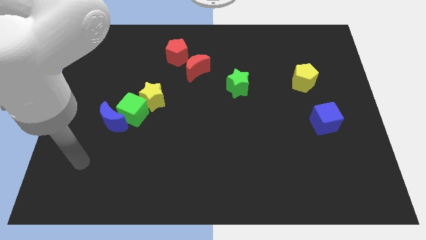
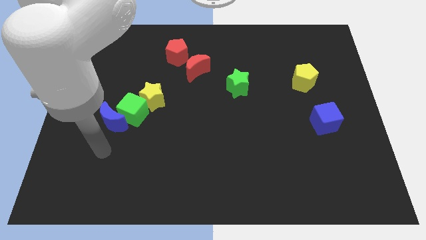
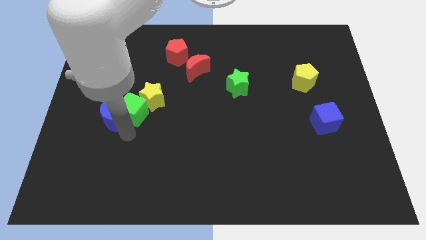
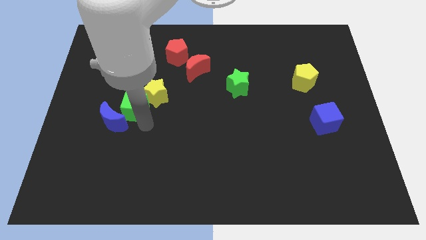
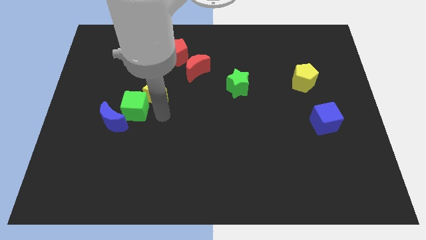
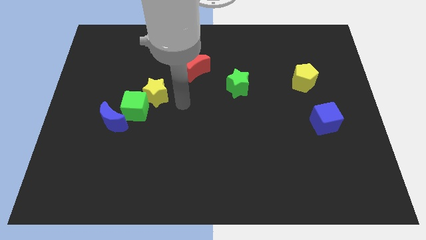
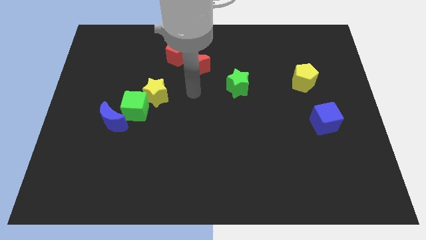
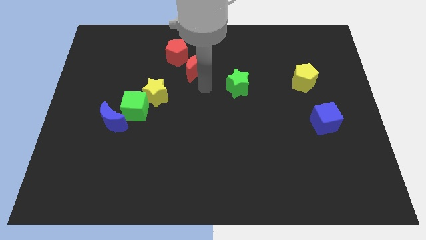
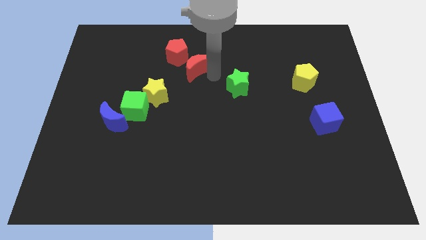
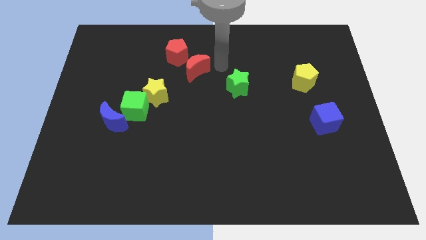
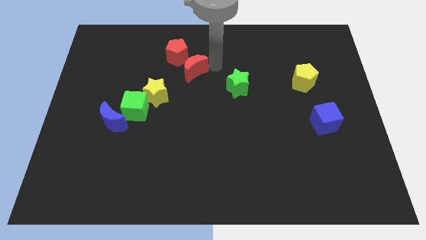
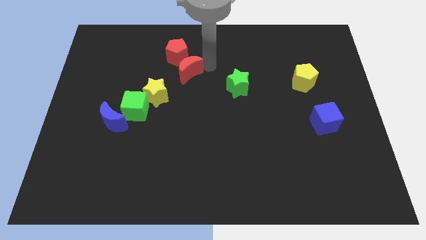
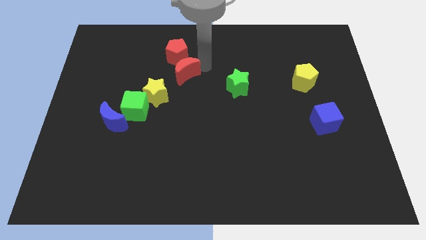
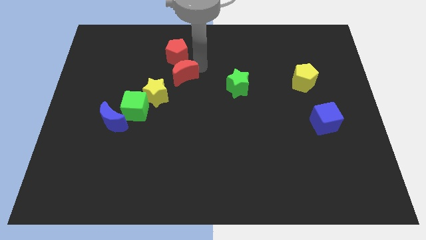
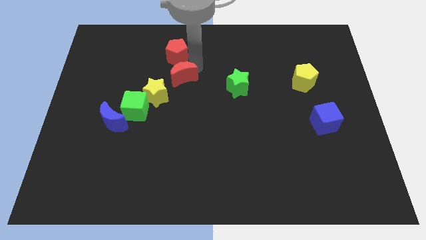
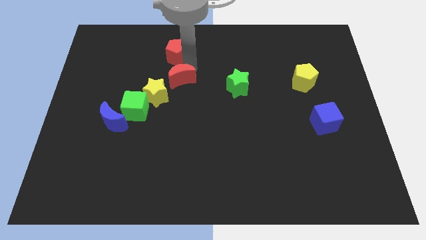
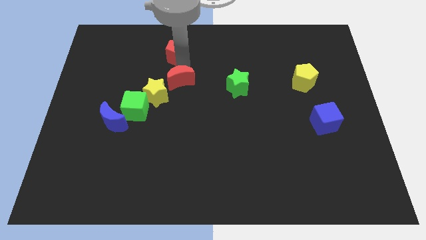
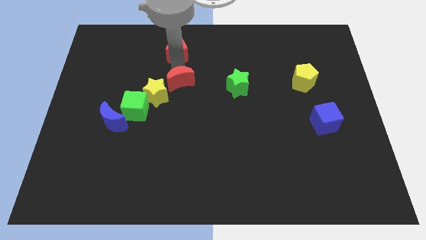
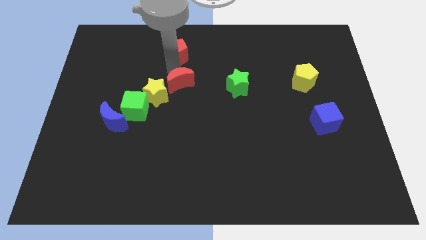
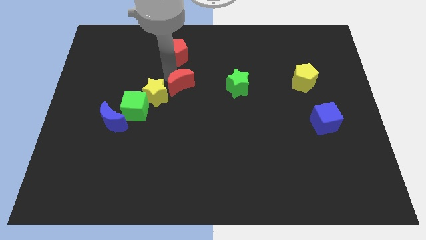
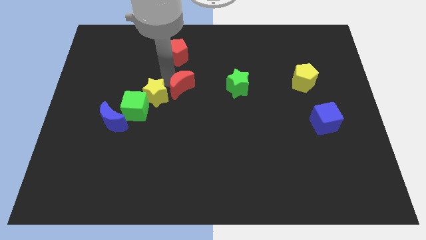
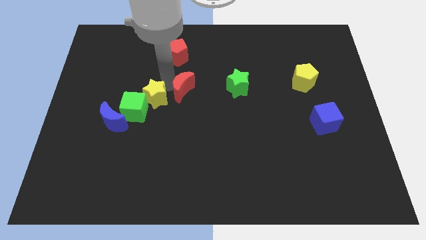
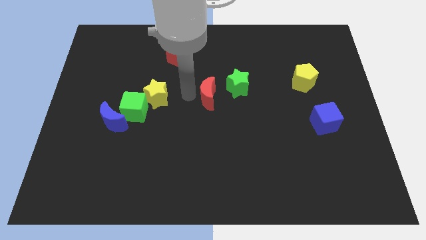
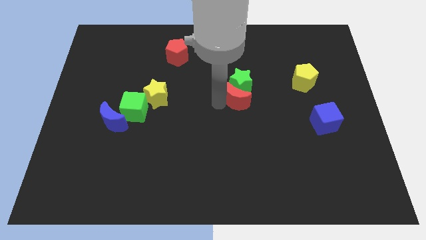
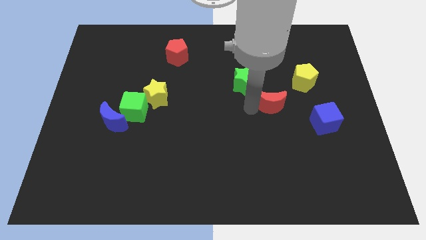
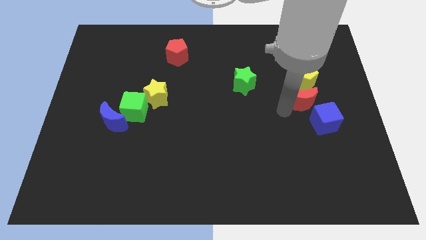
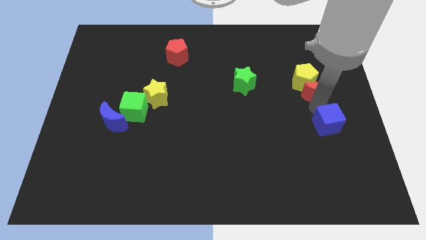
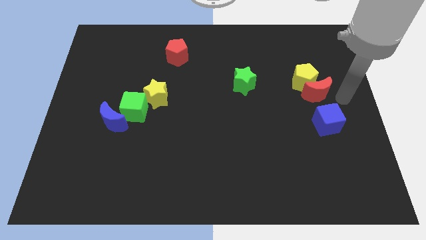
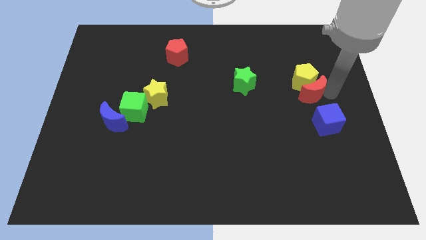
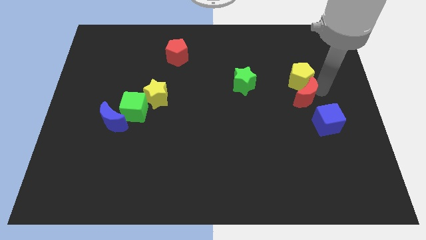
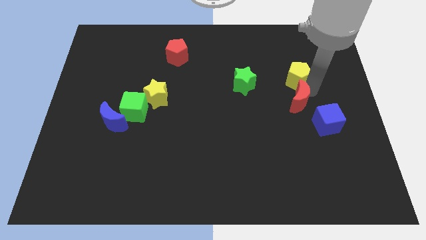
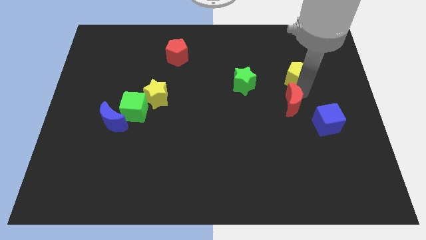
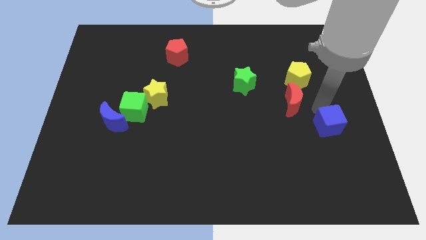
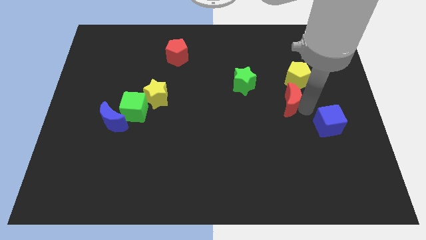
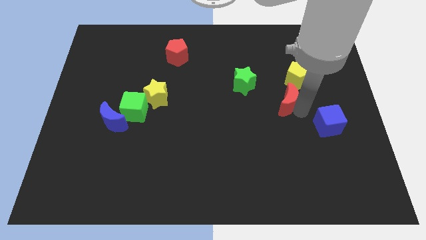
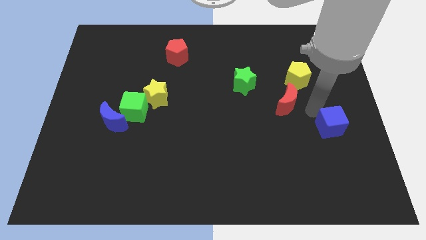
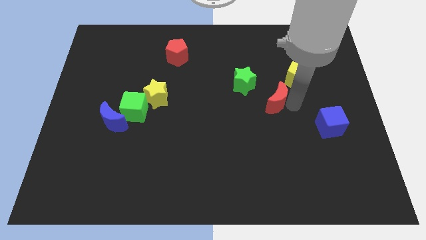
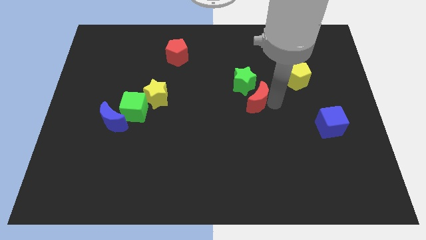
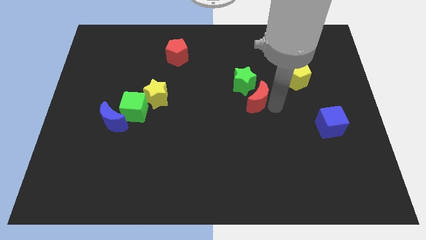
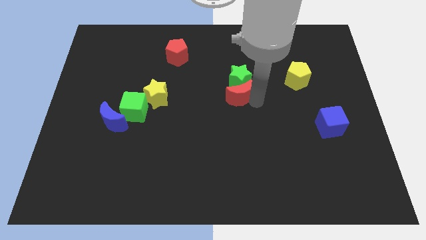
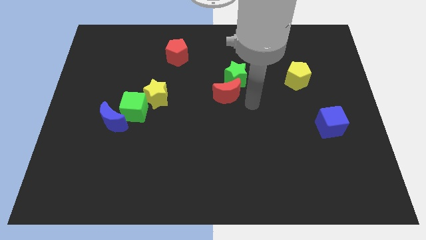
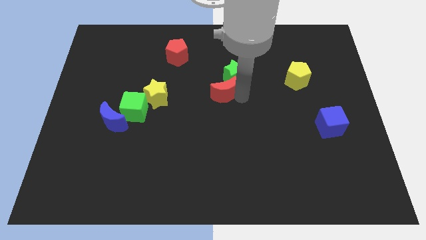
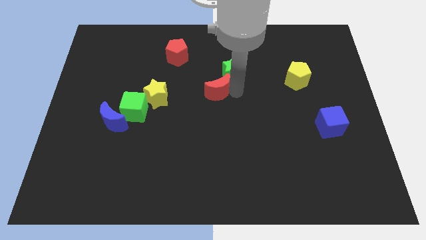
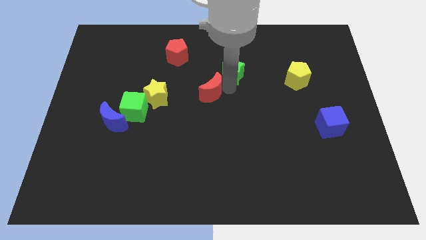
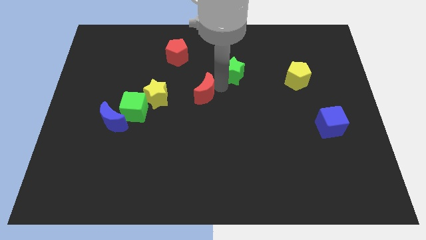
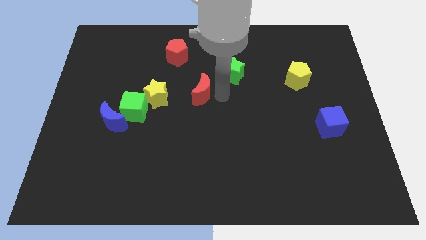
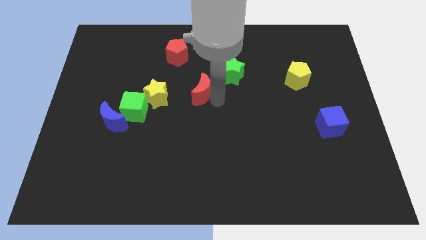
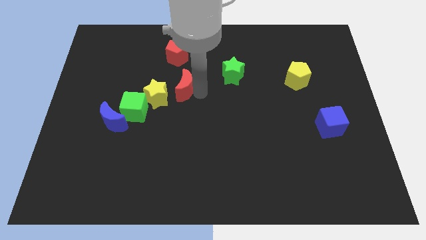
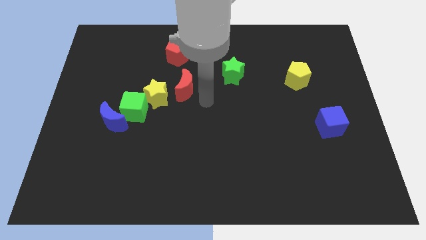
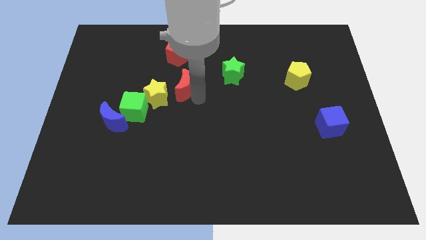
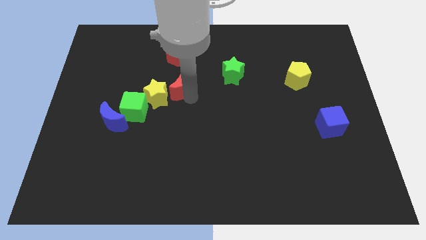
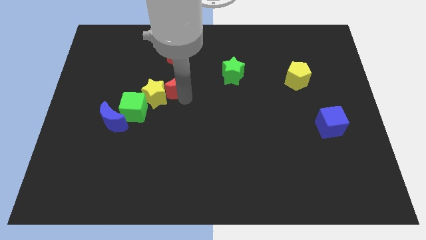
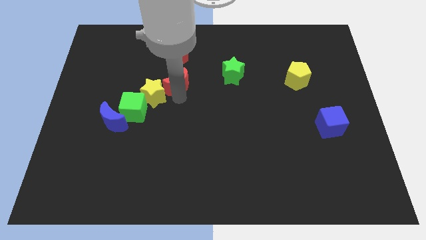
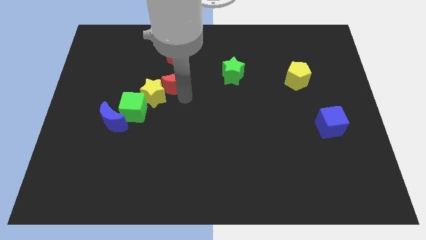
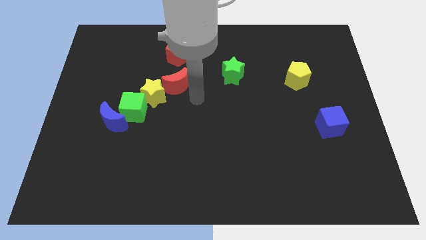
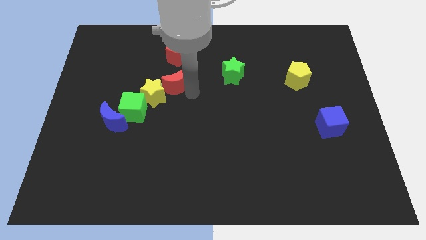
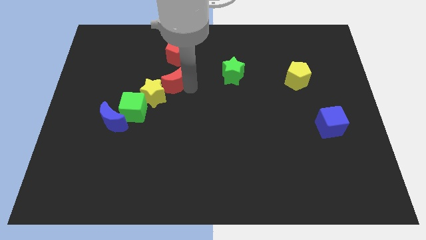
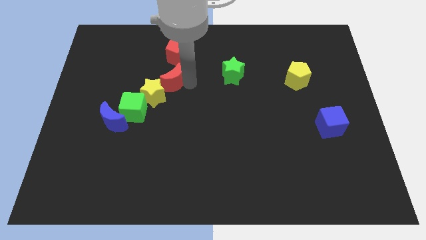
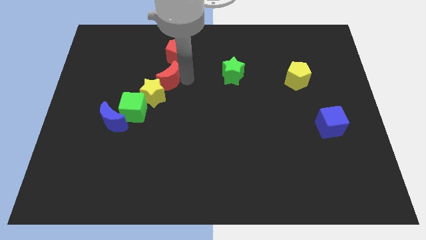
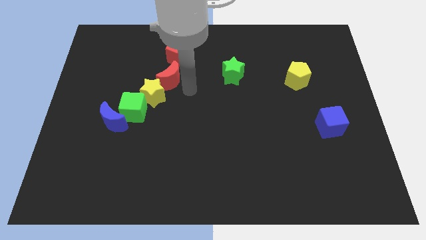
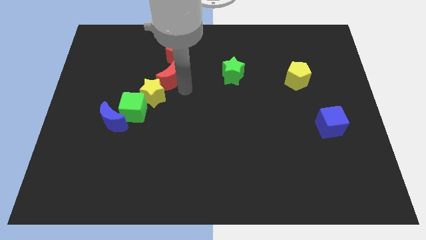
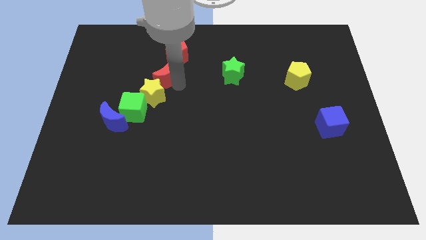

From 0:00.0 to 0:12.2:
move the red moon somewhat to the left

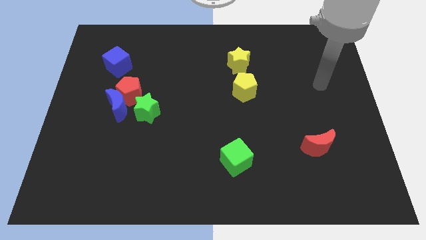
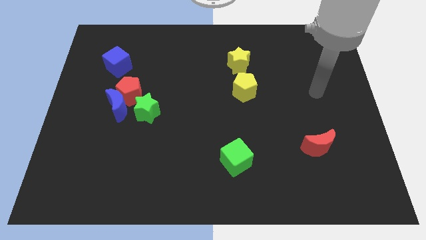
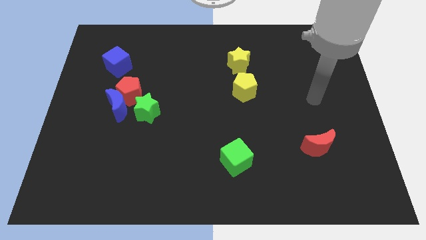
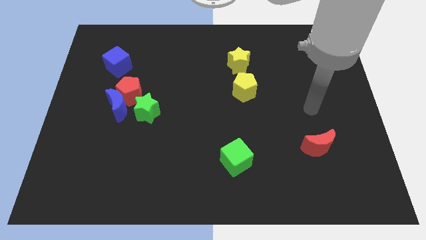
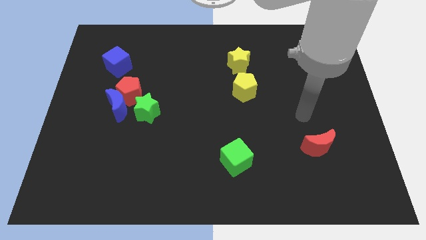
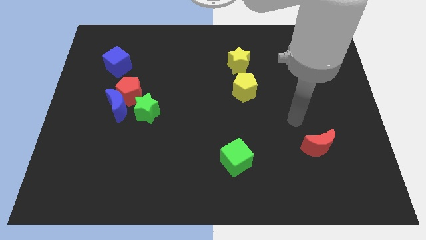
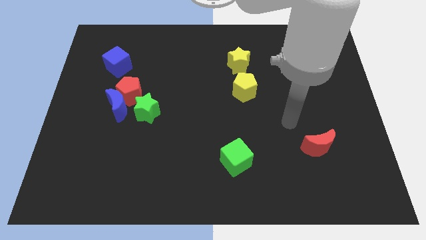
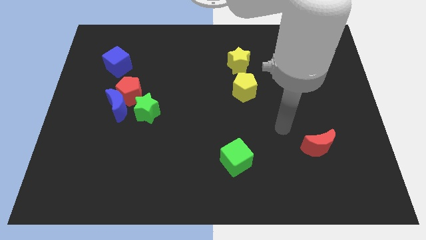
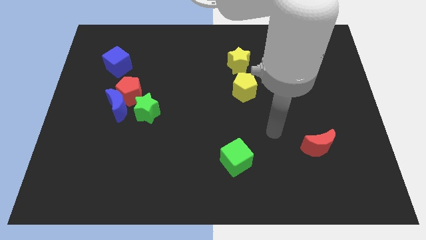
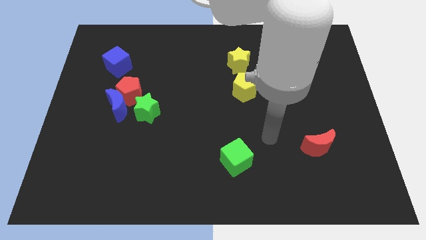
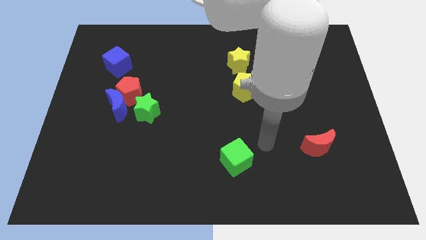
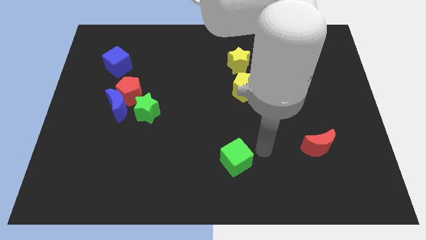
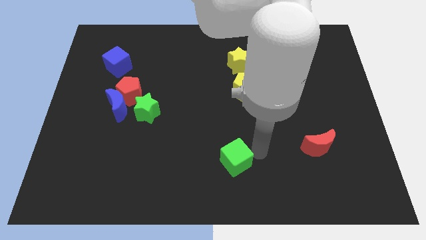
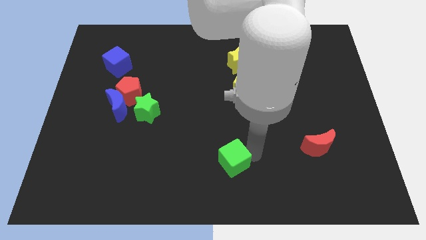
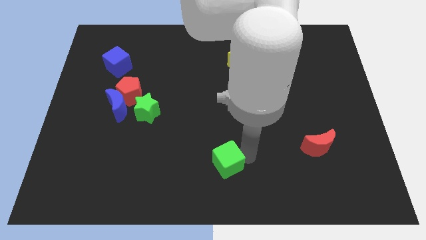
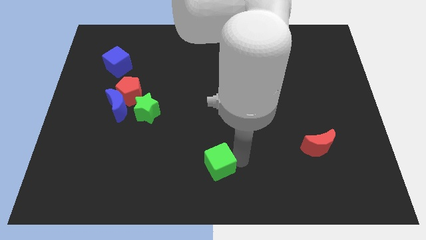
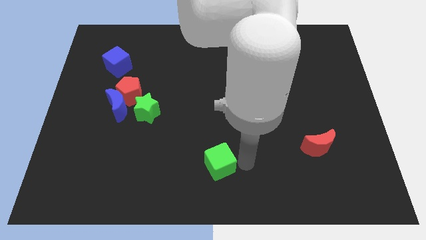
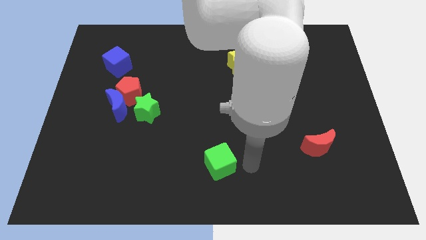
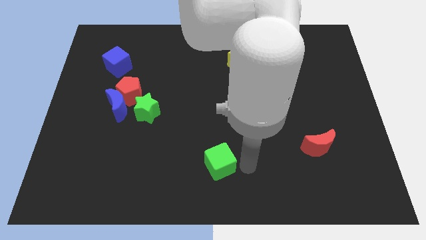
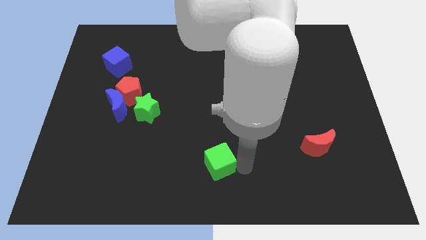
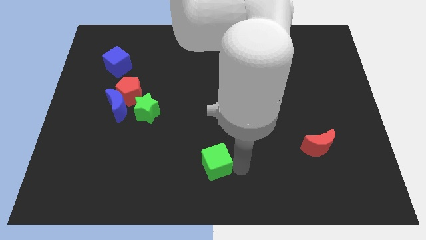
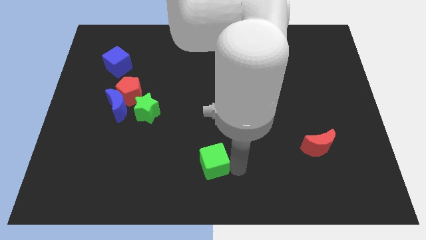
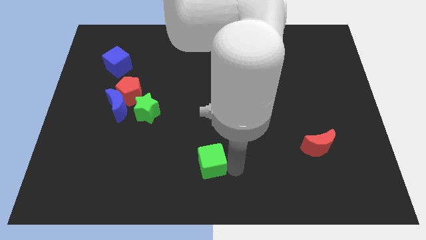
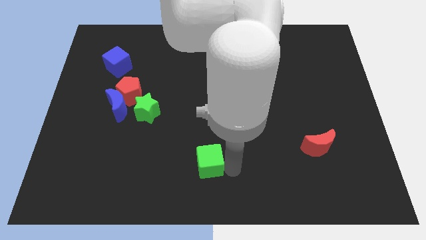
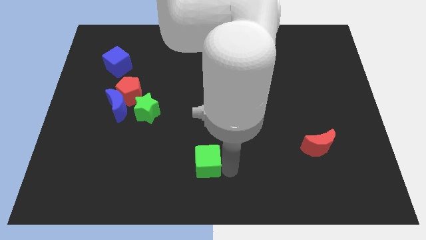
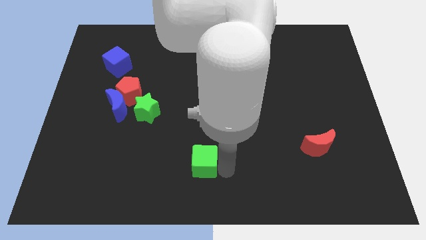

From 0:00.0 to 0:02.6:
slightly push the green cube to the left
